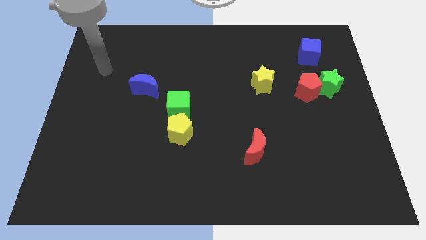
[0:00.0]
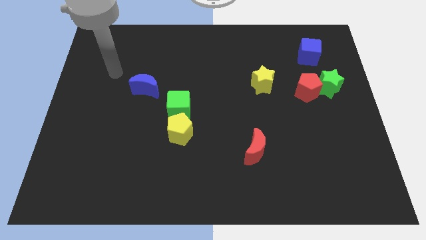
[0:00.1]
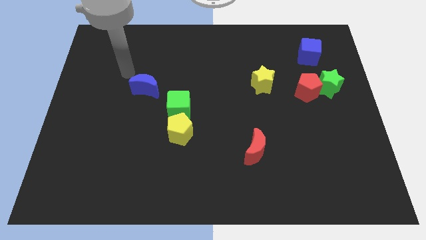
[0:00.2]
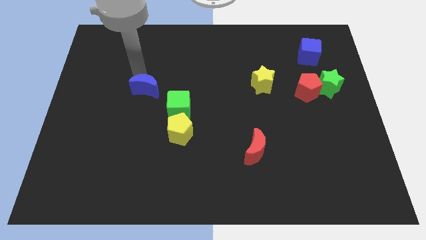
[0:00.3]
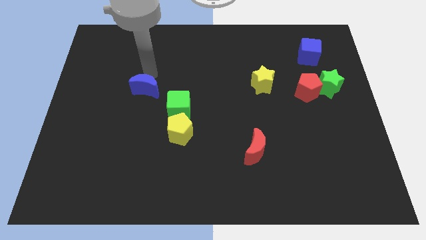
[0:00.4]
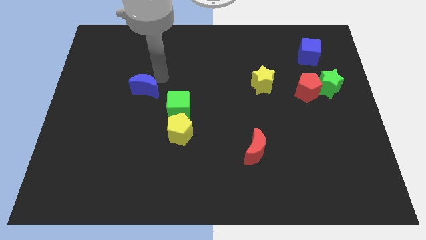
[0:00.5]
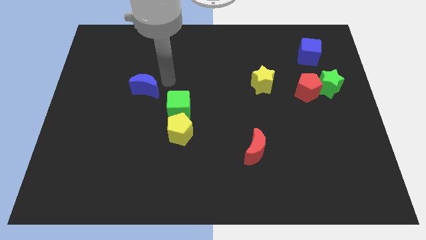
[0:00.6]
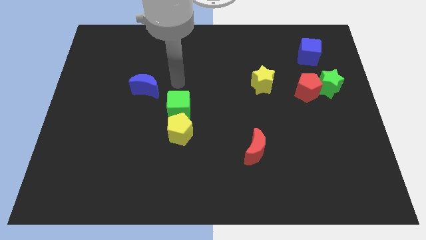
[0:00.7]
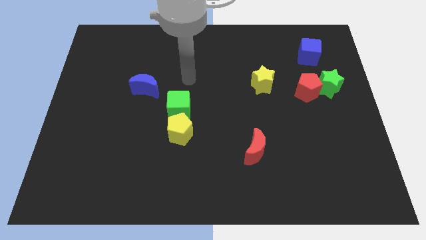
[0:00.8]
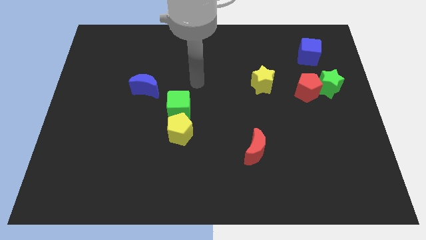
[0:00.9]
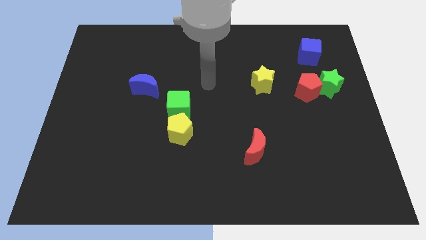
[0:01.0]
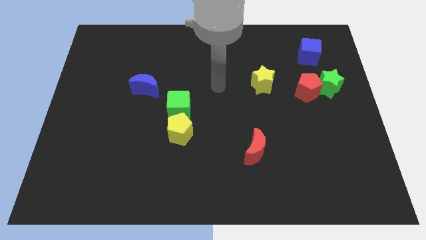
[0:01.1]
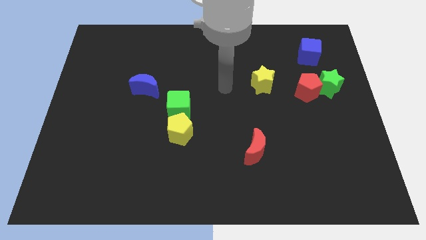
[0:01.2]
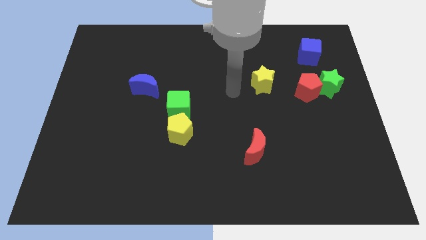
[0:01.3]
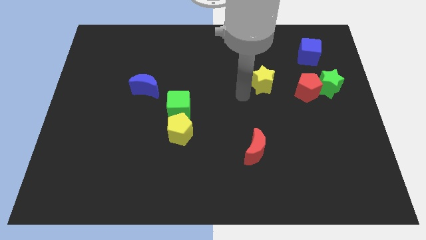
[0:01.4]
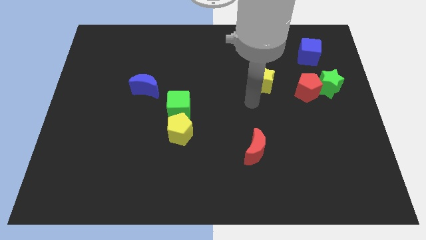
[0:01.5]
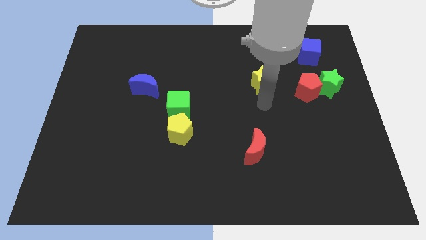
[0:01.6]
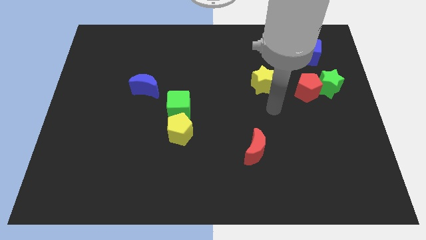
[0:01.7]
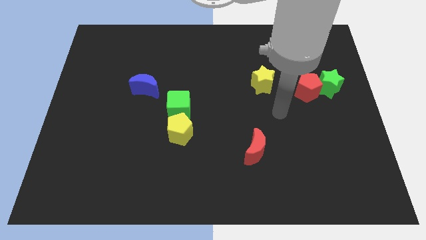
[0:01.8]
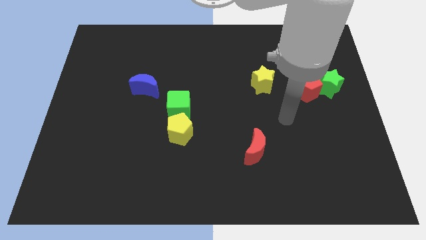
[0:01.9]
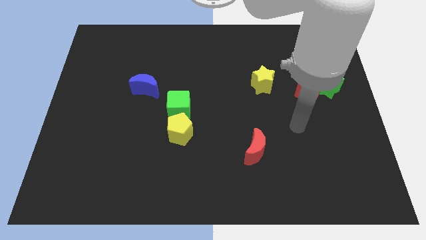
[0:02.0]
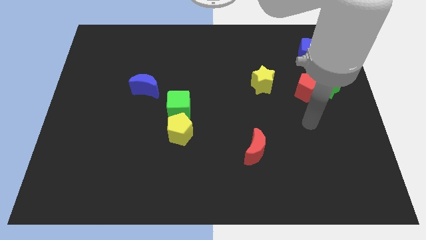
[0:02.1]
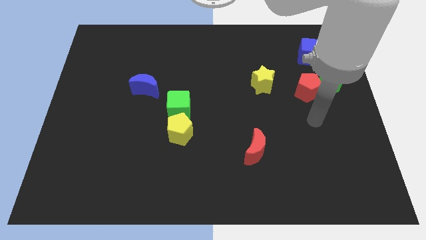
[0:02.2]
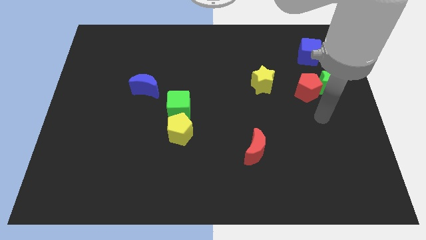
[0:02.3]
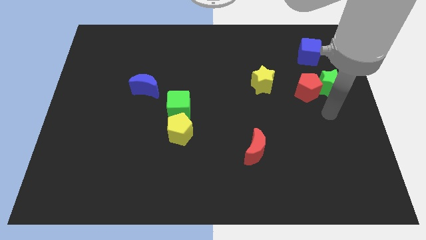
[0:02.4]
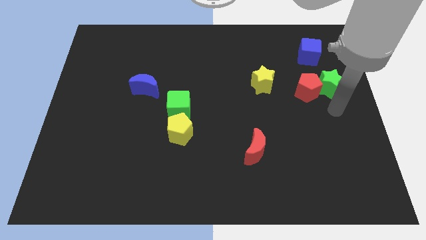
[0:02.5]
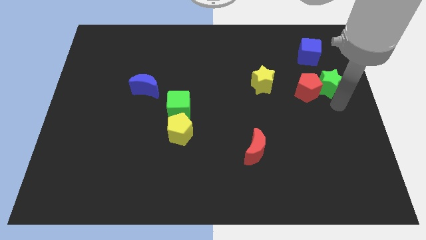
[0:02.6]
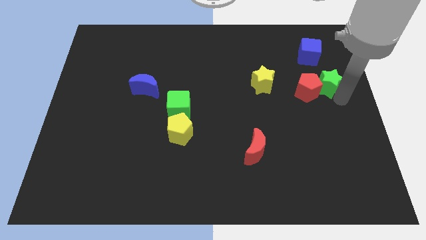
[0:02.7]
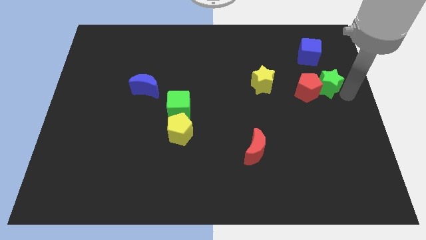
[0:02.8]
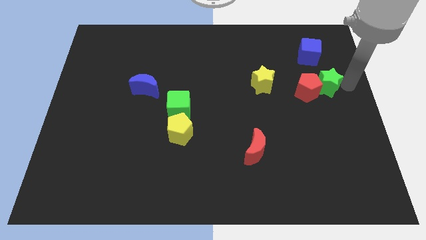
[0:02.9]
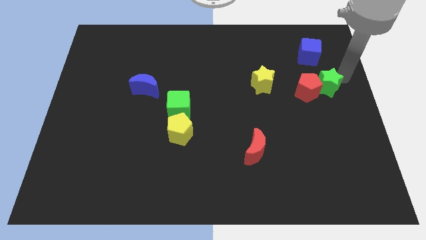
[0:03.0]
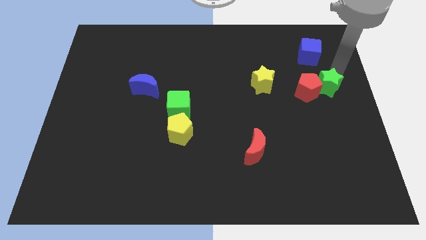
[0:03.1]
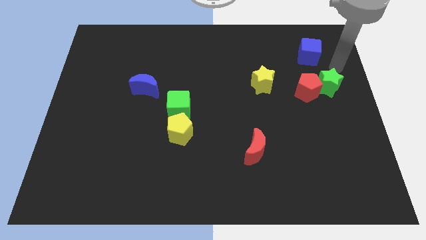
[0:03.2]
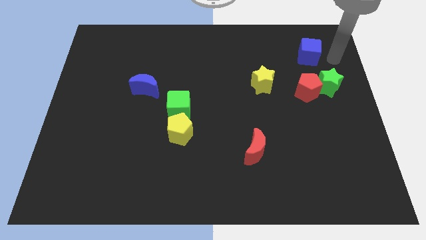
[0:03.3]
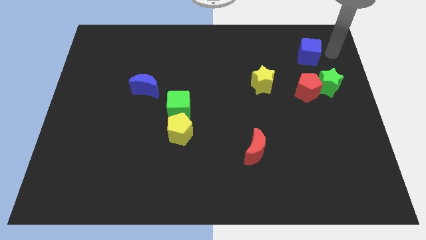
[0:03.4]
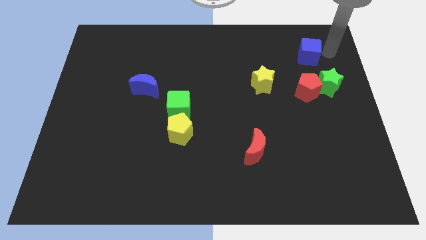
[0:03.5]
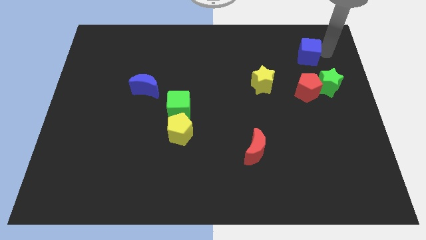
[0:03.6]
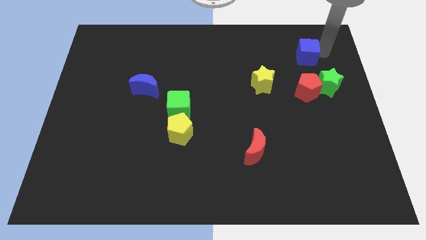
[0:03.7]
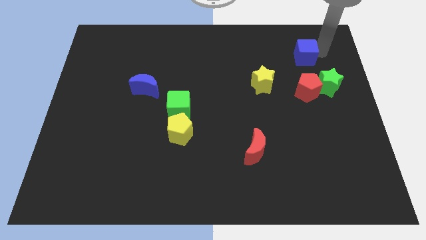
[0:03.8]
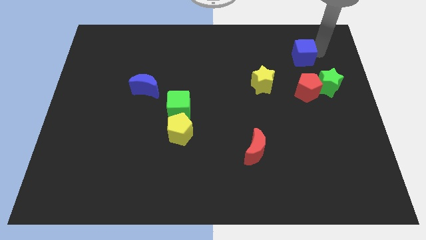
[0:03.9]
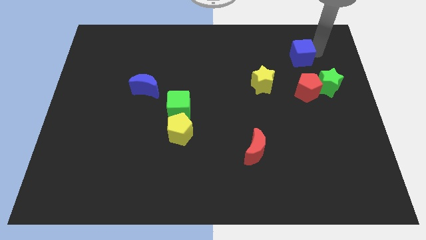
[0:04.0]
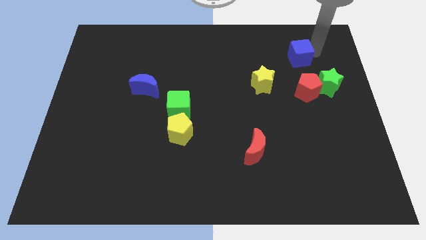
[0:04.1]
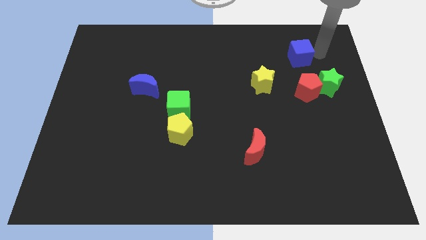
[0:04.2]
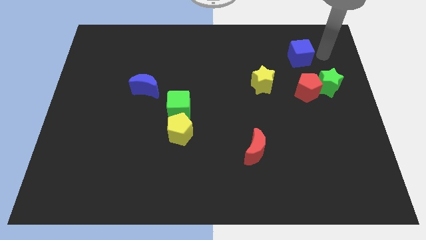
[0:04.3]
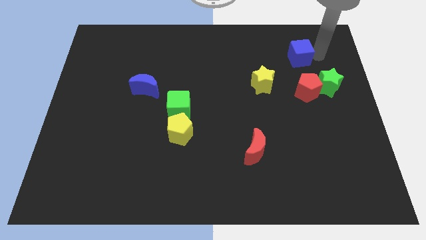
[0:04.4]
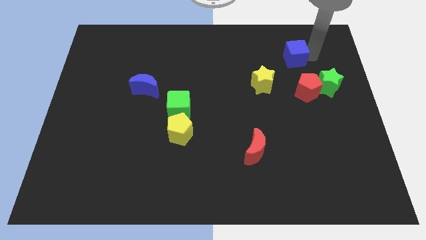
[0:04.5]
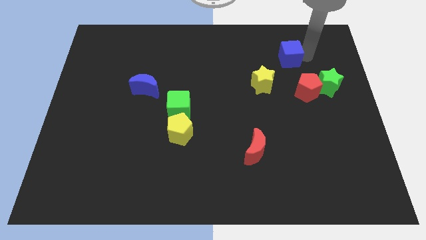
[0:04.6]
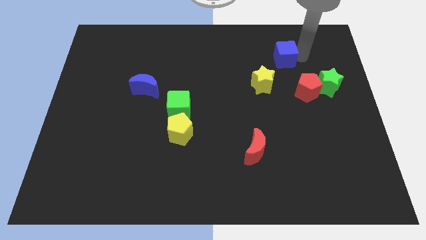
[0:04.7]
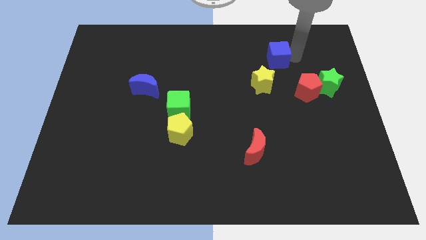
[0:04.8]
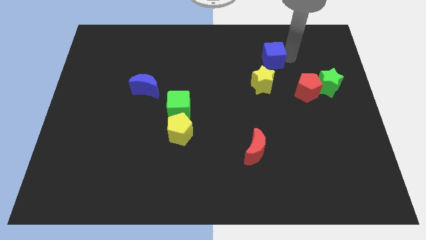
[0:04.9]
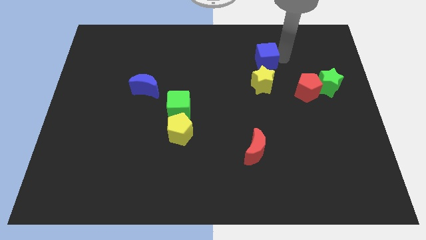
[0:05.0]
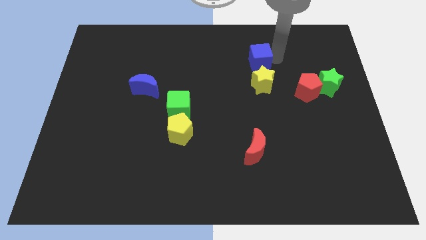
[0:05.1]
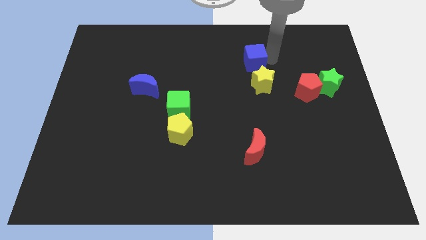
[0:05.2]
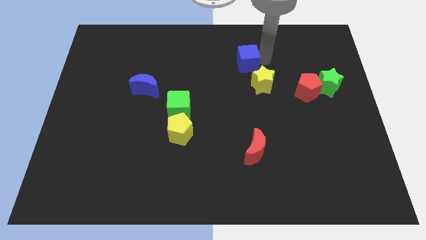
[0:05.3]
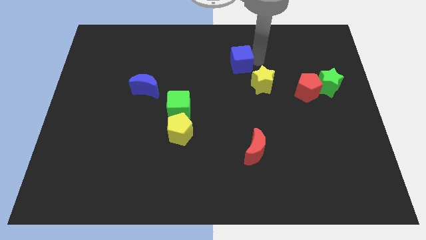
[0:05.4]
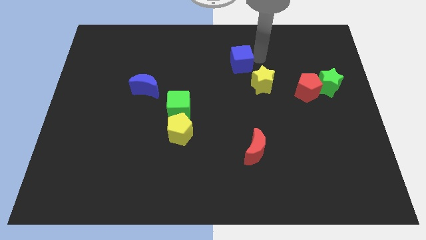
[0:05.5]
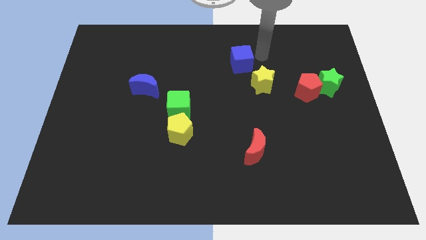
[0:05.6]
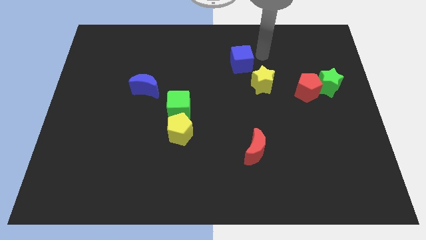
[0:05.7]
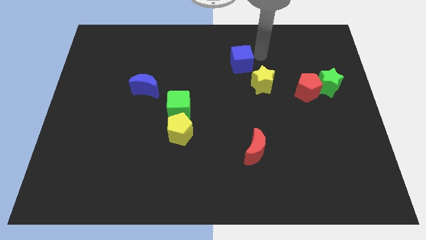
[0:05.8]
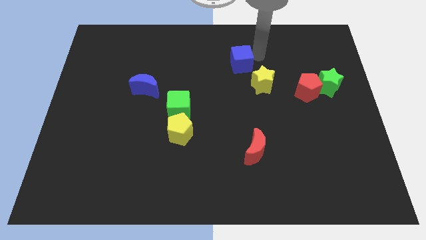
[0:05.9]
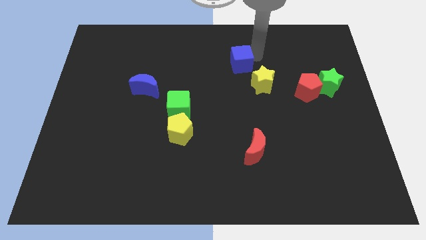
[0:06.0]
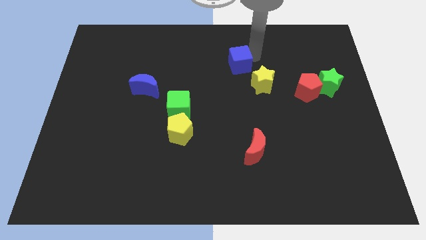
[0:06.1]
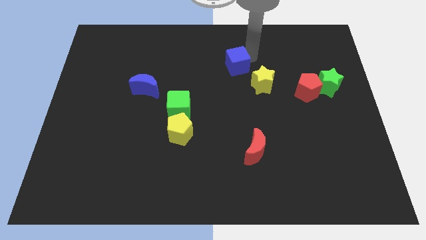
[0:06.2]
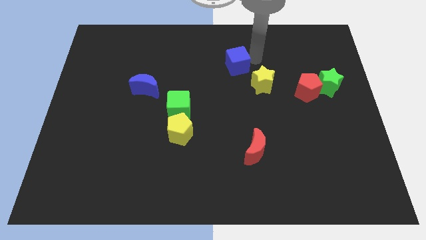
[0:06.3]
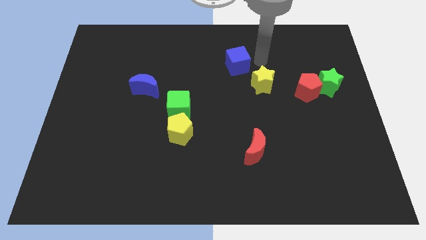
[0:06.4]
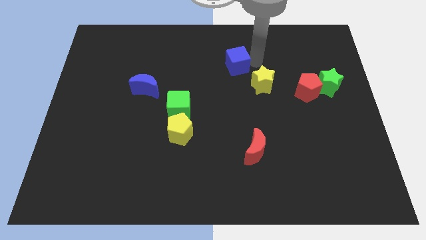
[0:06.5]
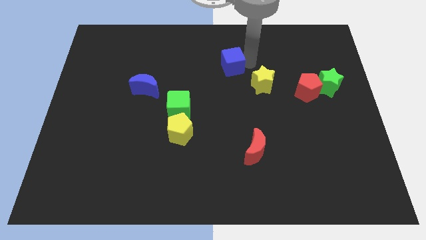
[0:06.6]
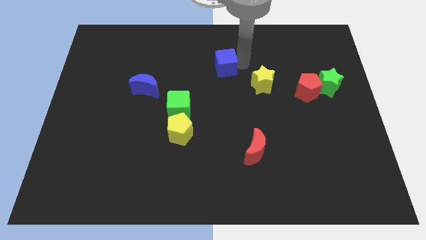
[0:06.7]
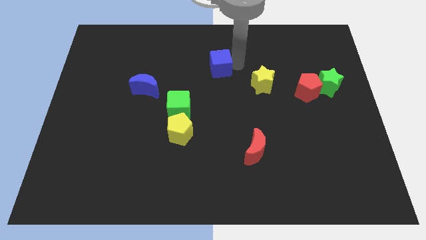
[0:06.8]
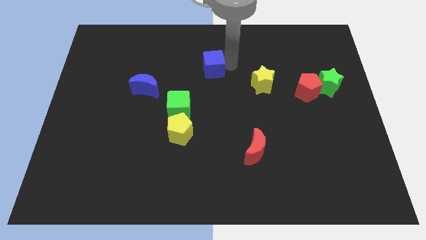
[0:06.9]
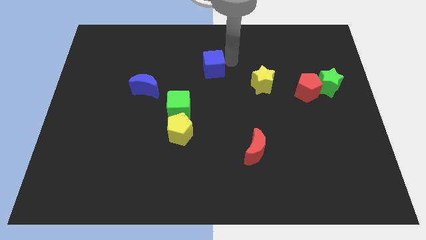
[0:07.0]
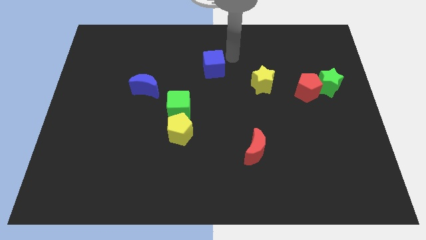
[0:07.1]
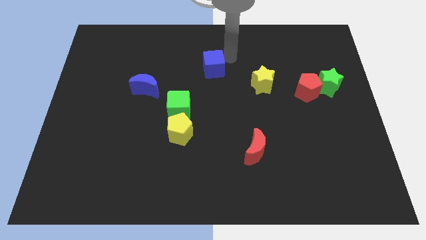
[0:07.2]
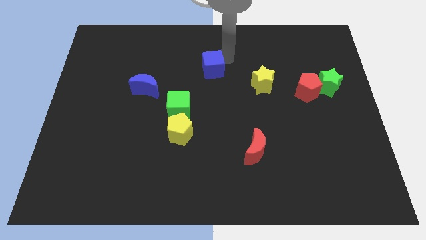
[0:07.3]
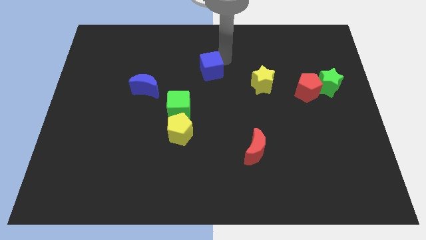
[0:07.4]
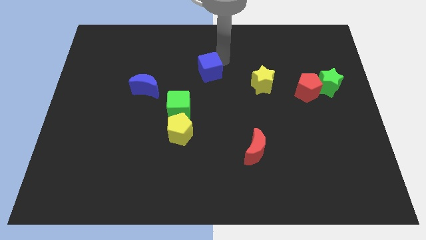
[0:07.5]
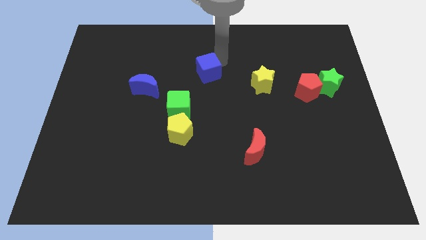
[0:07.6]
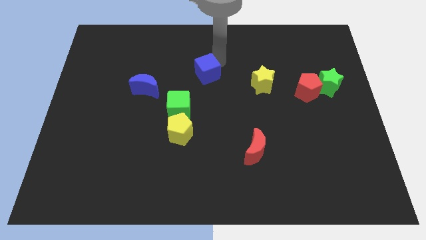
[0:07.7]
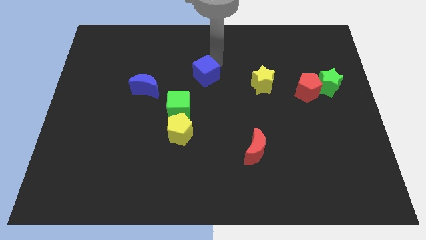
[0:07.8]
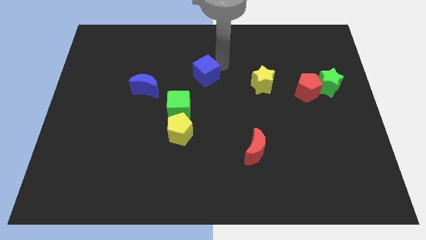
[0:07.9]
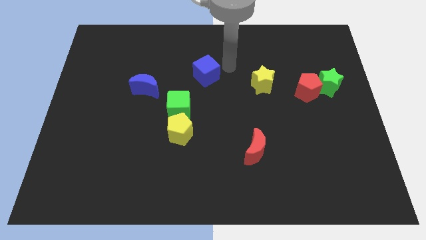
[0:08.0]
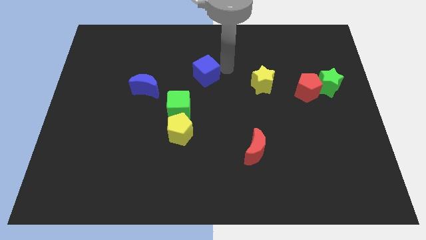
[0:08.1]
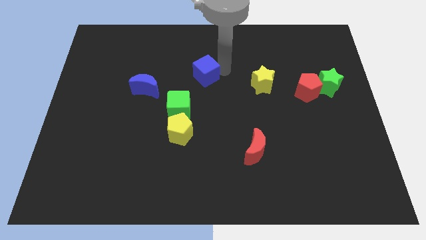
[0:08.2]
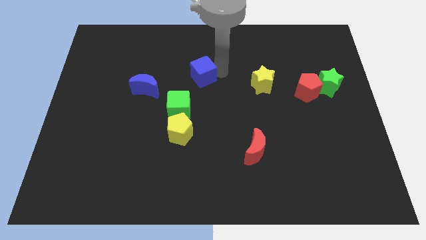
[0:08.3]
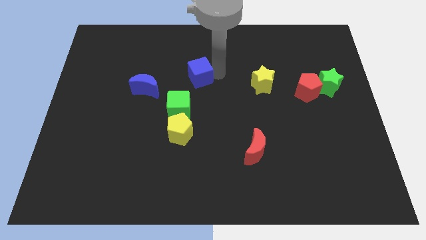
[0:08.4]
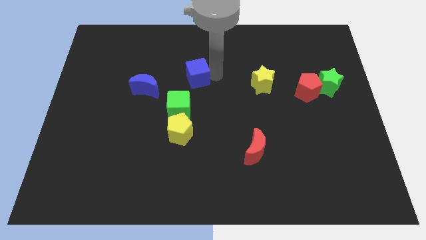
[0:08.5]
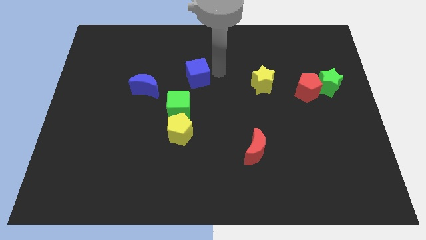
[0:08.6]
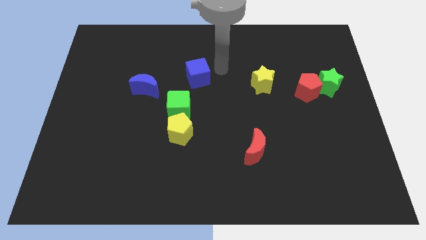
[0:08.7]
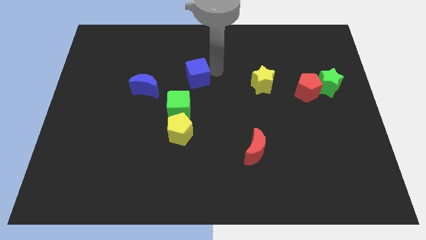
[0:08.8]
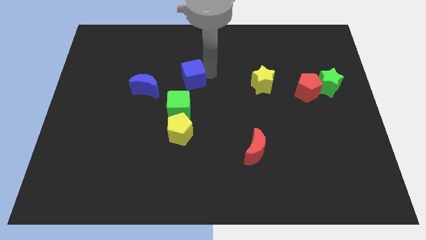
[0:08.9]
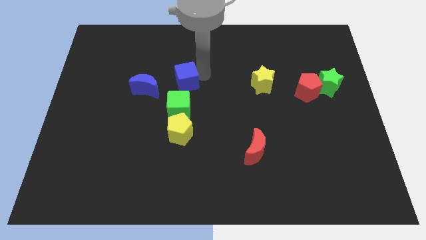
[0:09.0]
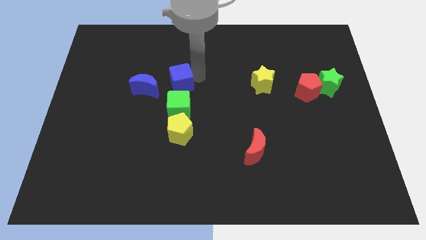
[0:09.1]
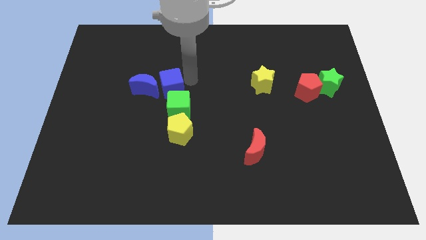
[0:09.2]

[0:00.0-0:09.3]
push the blue cube close to the blue moon
